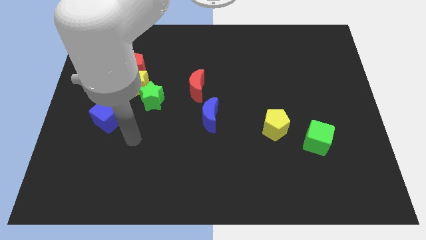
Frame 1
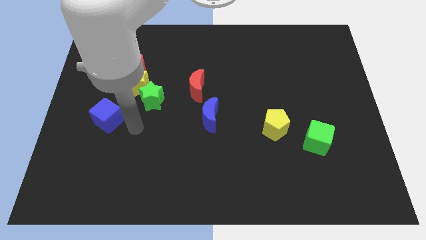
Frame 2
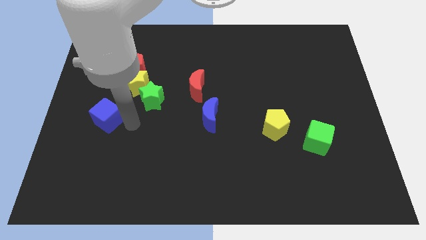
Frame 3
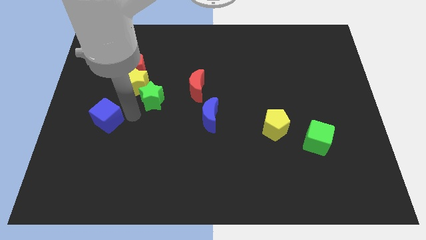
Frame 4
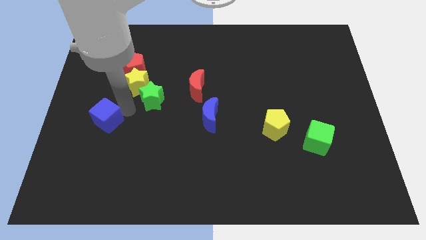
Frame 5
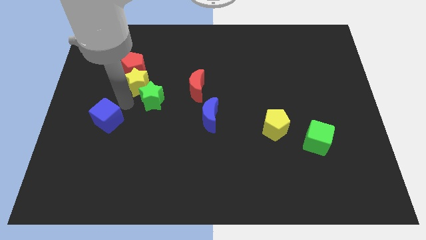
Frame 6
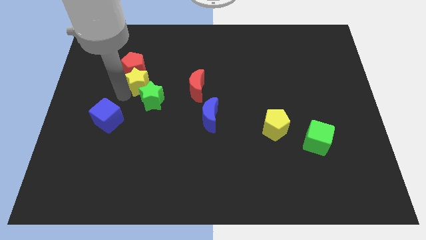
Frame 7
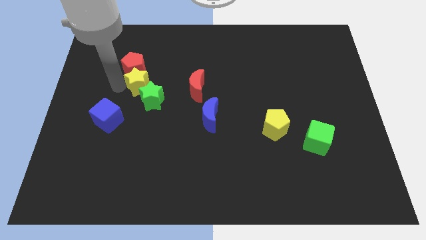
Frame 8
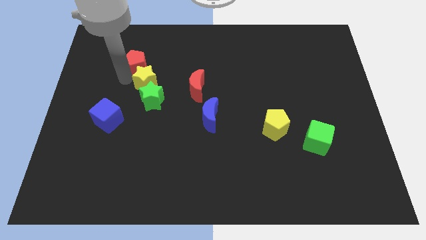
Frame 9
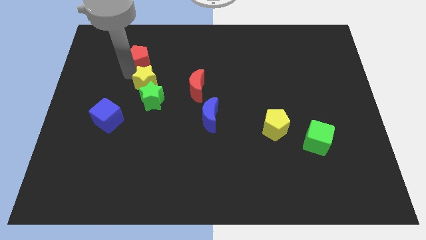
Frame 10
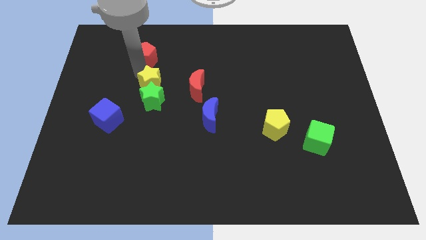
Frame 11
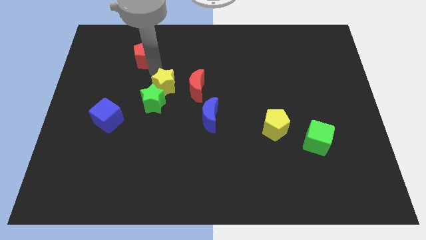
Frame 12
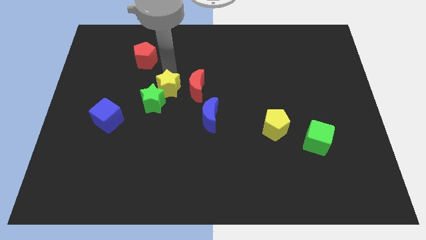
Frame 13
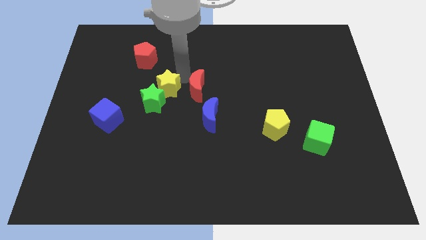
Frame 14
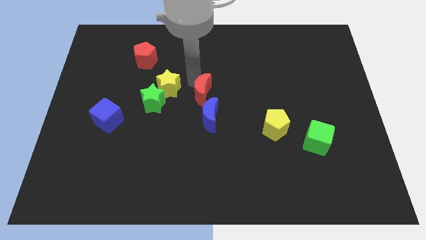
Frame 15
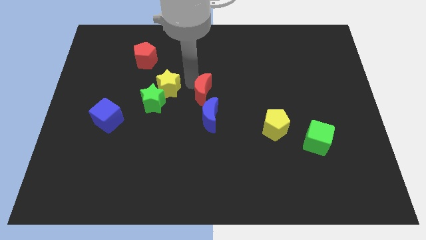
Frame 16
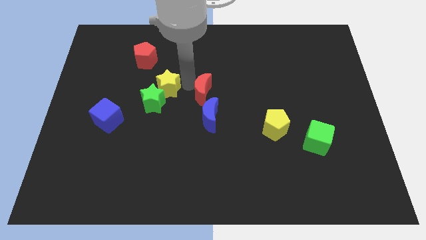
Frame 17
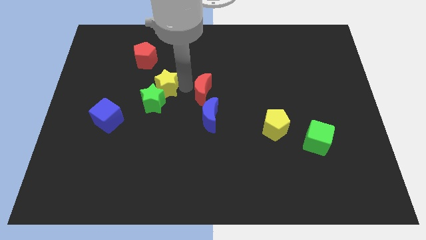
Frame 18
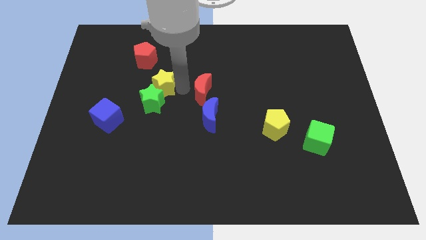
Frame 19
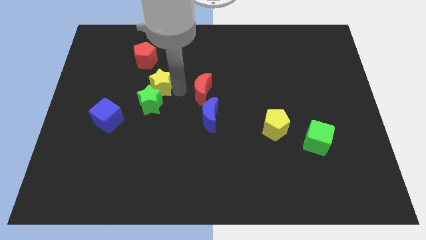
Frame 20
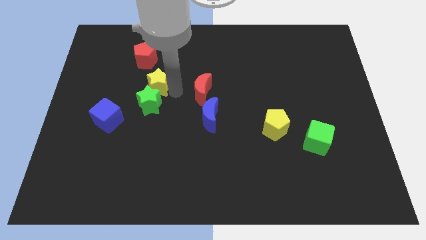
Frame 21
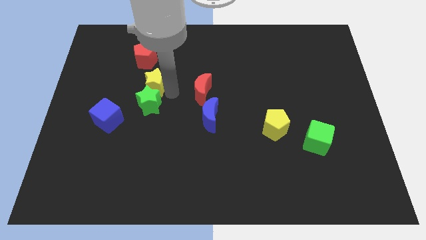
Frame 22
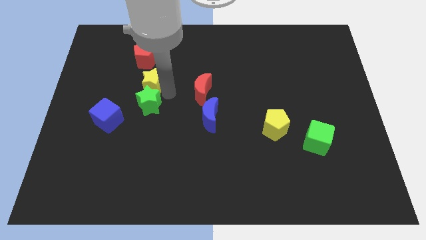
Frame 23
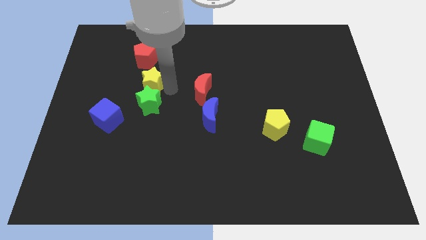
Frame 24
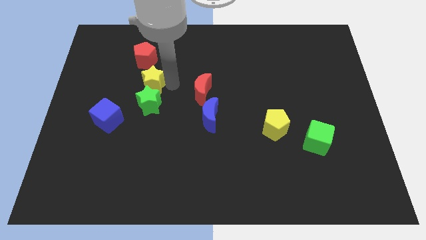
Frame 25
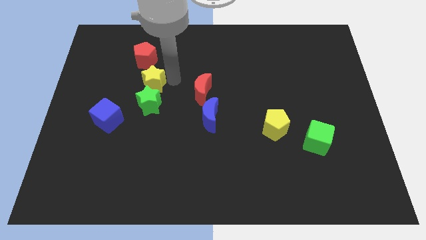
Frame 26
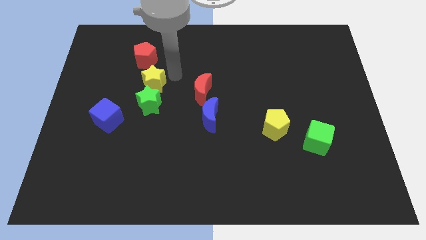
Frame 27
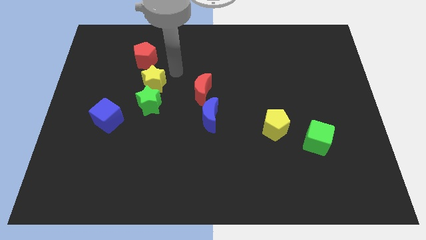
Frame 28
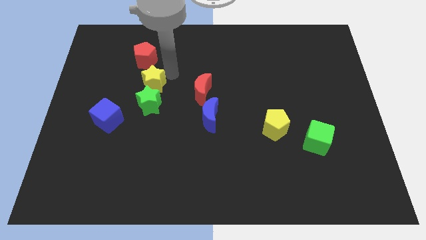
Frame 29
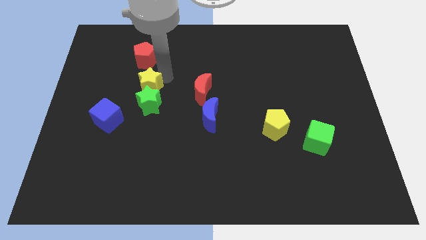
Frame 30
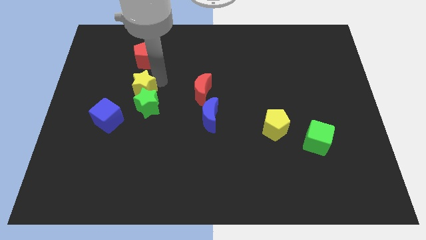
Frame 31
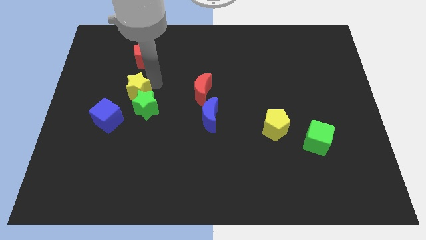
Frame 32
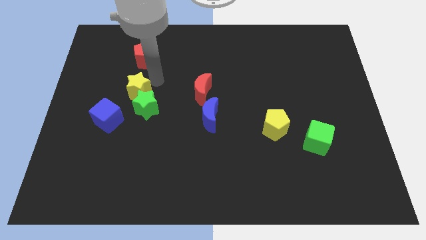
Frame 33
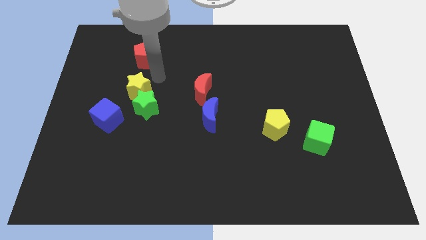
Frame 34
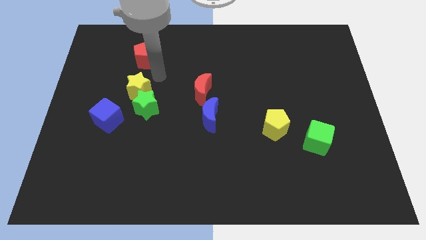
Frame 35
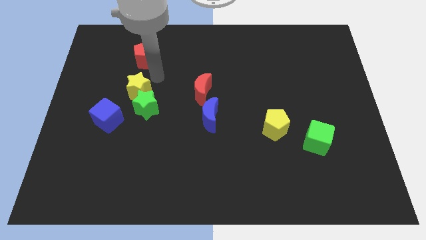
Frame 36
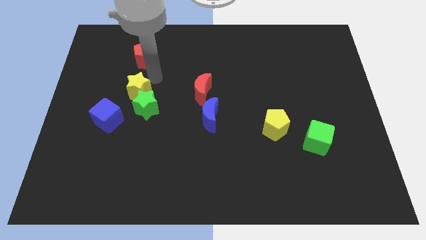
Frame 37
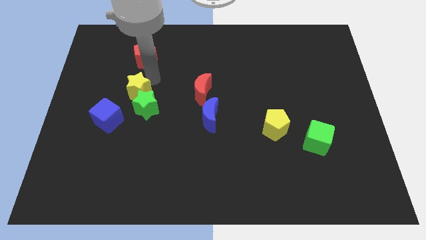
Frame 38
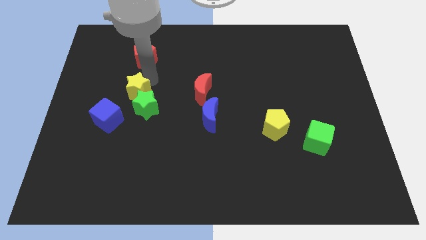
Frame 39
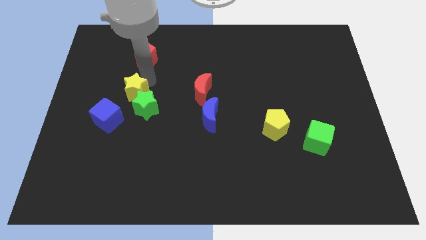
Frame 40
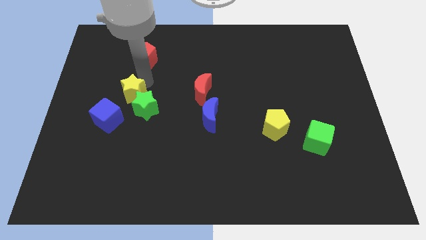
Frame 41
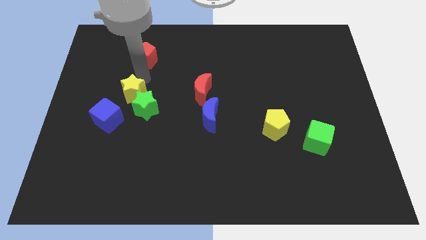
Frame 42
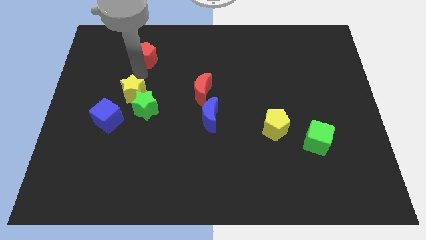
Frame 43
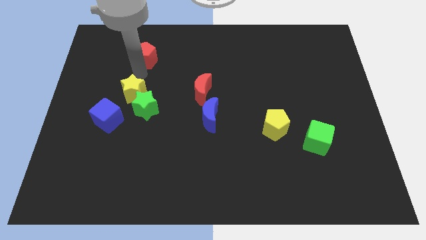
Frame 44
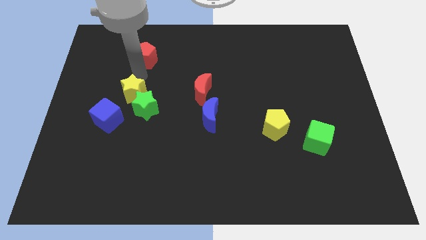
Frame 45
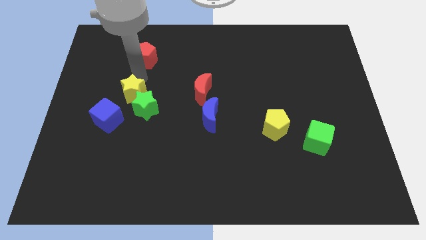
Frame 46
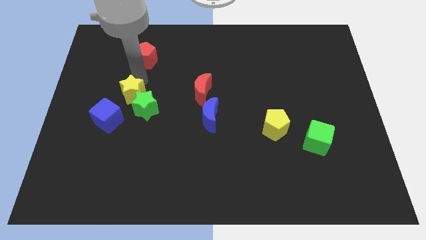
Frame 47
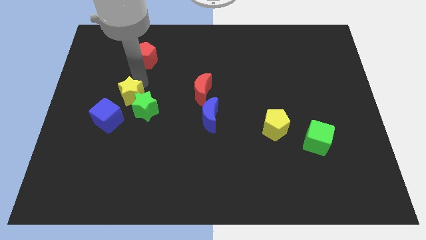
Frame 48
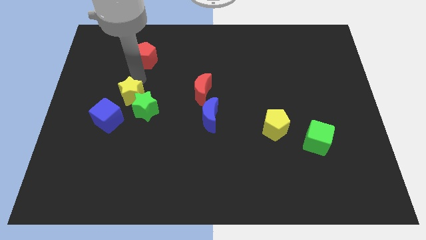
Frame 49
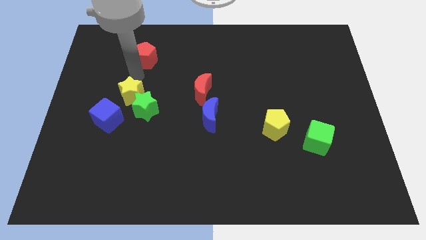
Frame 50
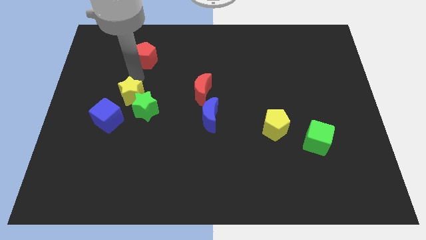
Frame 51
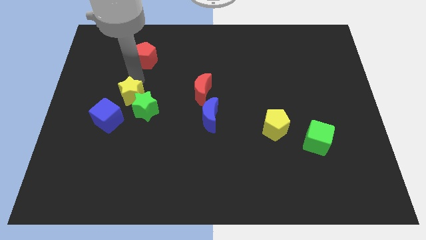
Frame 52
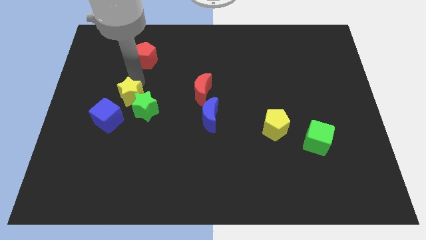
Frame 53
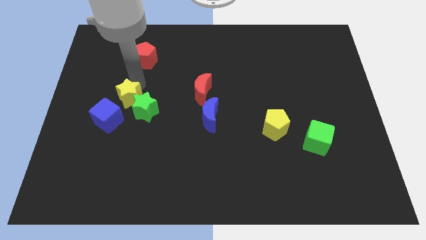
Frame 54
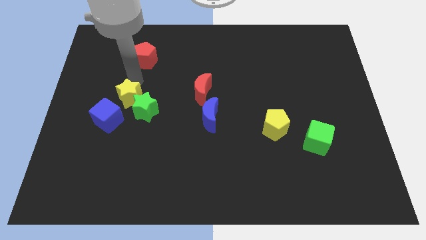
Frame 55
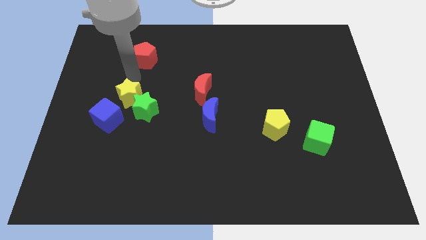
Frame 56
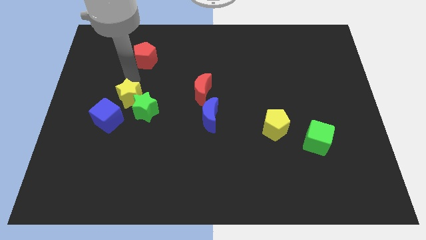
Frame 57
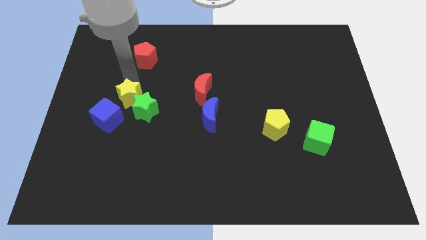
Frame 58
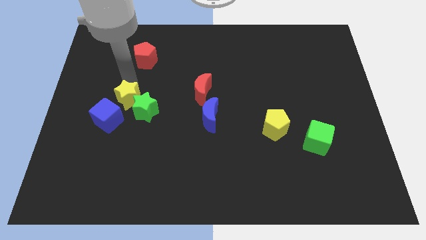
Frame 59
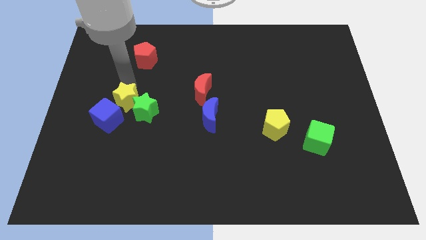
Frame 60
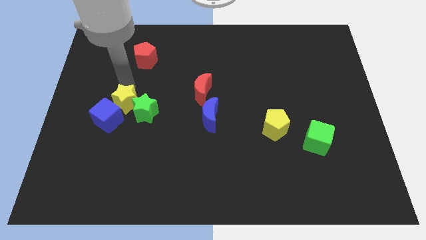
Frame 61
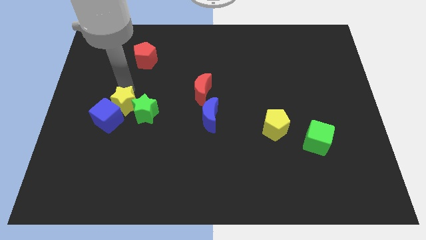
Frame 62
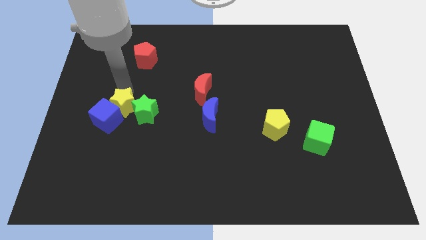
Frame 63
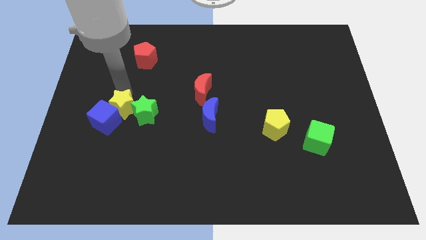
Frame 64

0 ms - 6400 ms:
slightly push the yellow star down

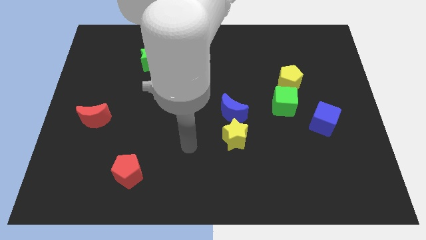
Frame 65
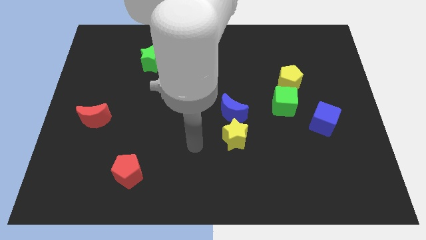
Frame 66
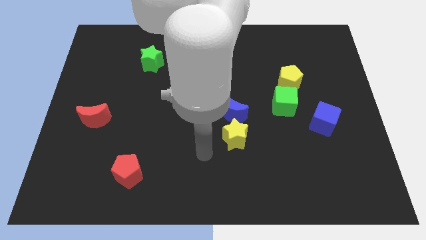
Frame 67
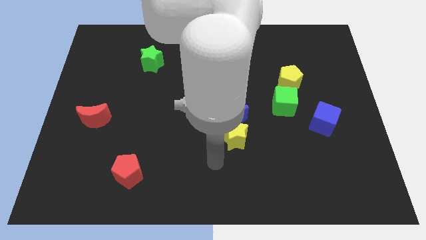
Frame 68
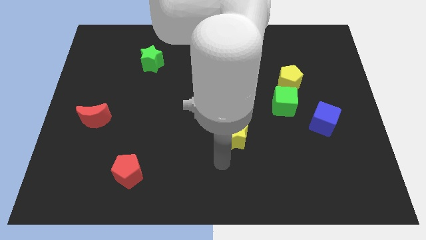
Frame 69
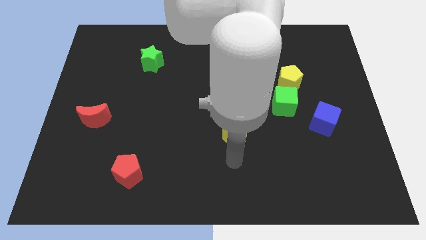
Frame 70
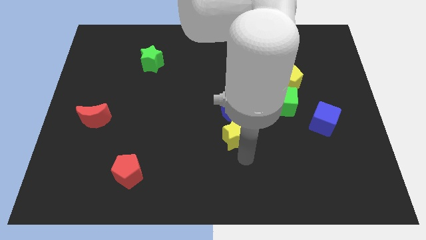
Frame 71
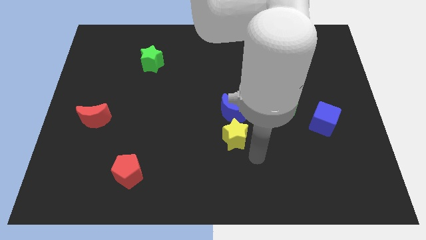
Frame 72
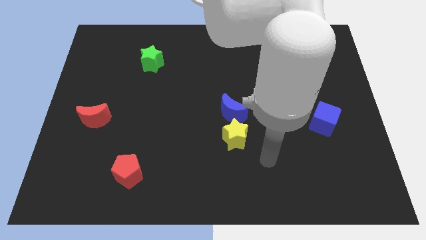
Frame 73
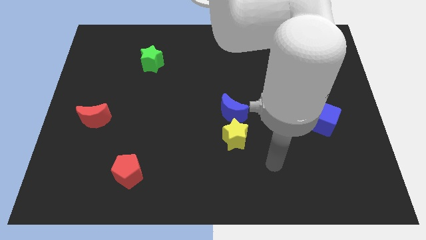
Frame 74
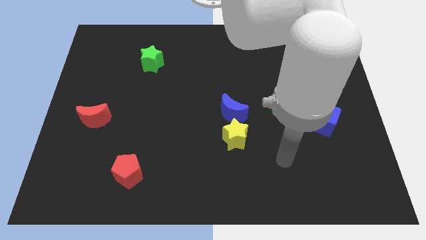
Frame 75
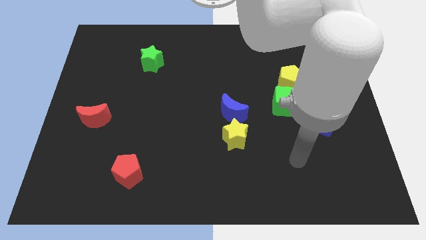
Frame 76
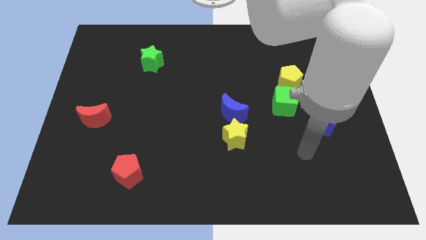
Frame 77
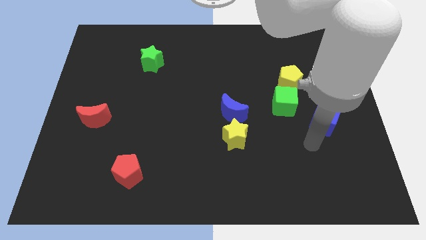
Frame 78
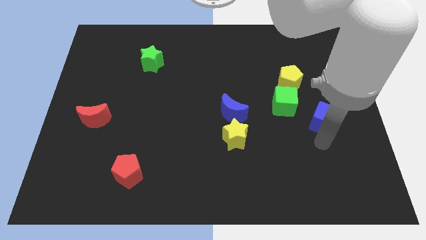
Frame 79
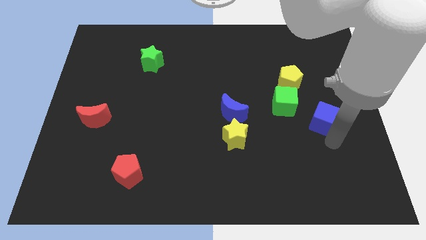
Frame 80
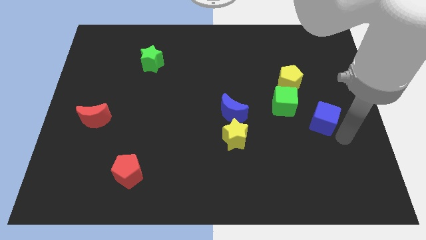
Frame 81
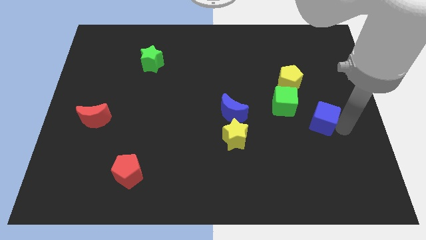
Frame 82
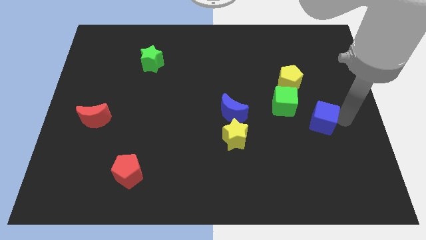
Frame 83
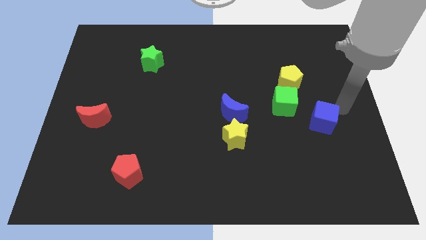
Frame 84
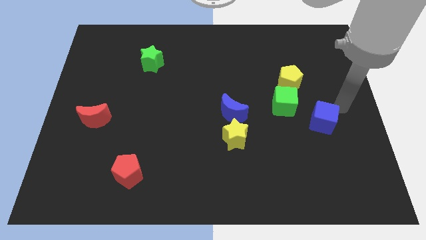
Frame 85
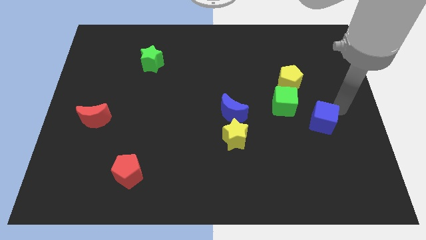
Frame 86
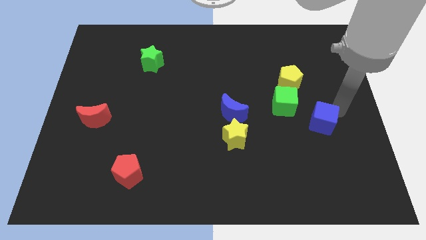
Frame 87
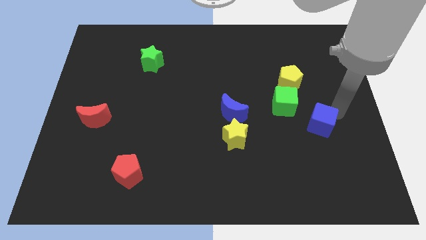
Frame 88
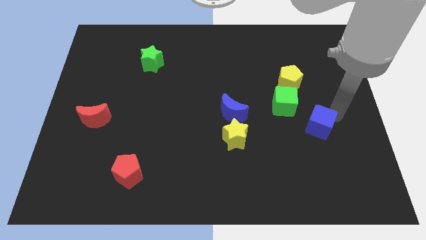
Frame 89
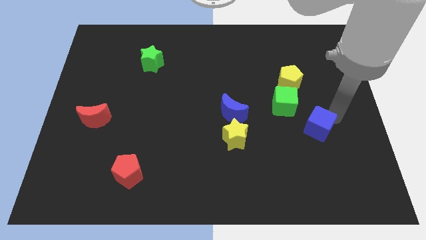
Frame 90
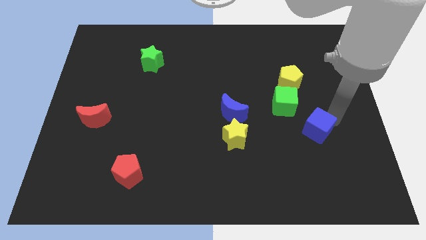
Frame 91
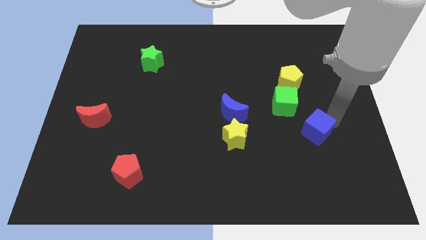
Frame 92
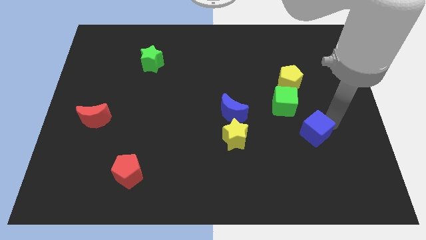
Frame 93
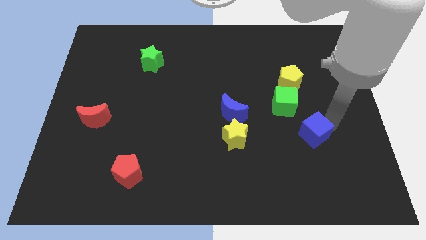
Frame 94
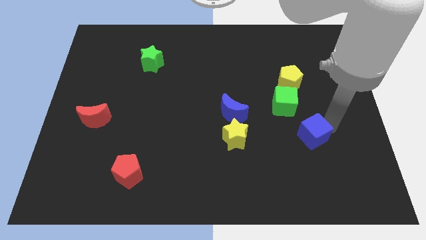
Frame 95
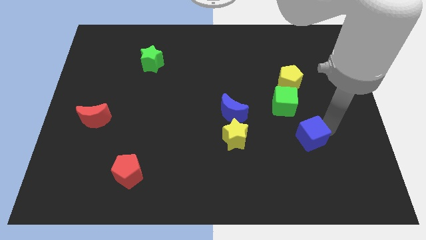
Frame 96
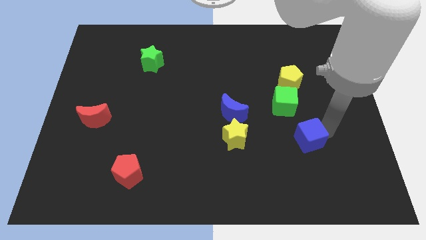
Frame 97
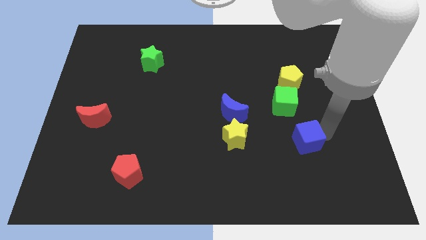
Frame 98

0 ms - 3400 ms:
move the blue cube slightly down and left diagonally
